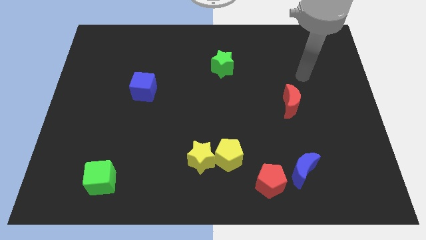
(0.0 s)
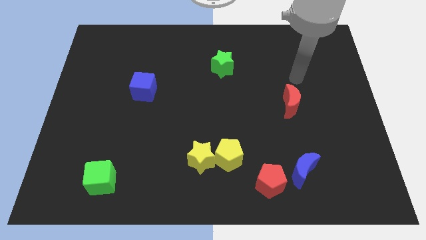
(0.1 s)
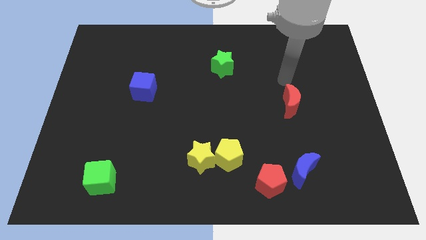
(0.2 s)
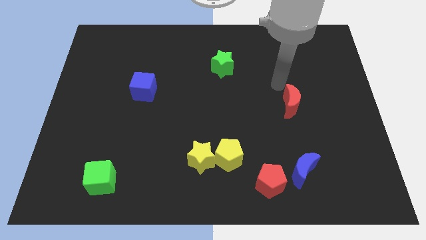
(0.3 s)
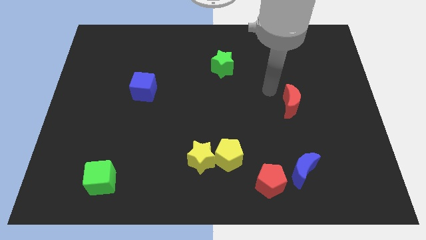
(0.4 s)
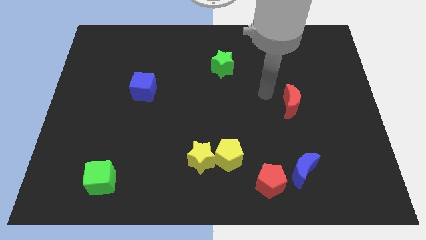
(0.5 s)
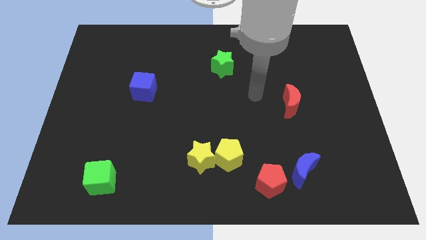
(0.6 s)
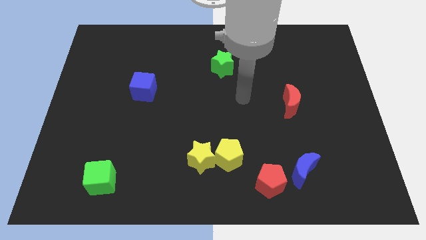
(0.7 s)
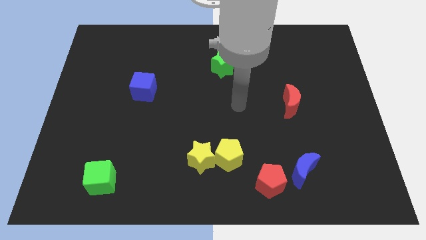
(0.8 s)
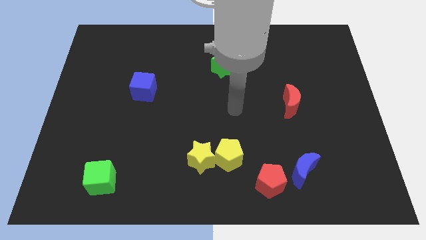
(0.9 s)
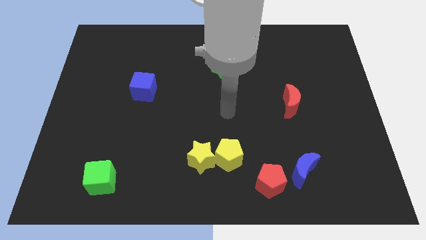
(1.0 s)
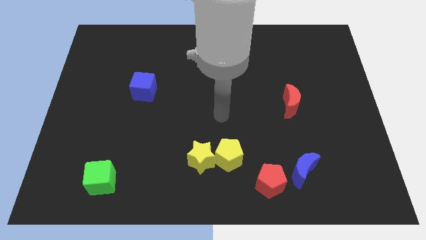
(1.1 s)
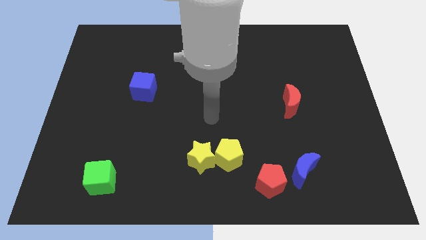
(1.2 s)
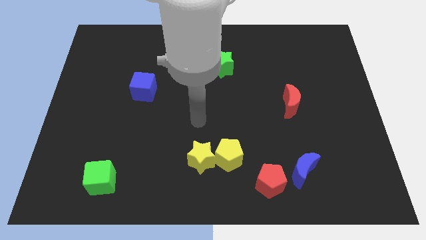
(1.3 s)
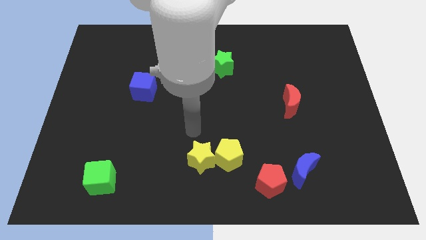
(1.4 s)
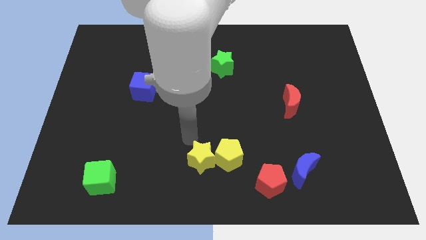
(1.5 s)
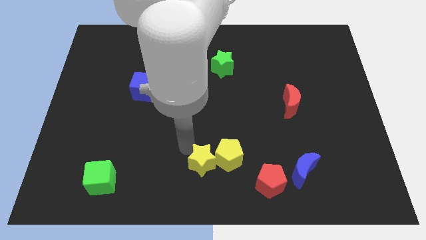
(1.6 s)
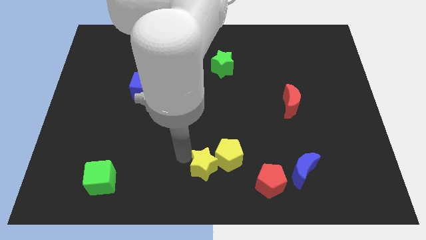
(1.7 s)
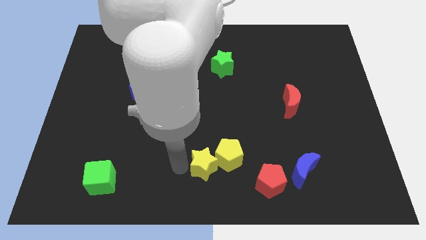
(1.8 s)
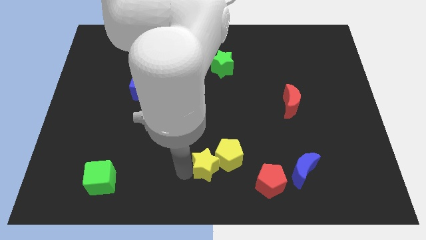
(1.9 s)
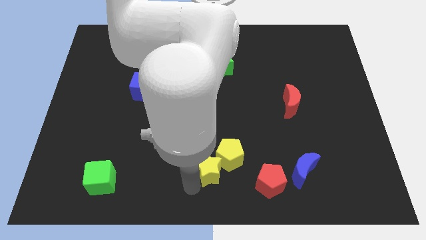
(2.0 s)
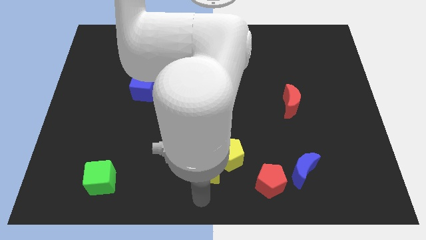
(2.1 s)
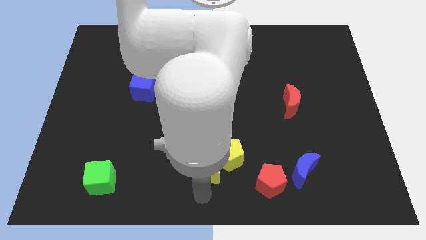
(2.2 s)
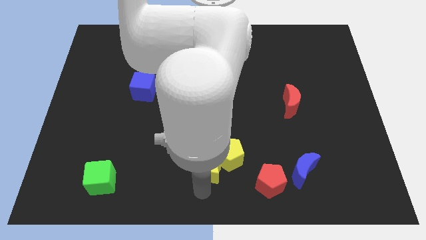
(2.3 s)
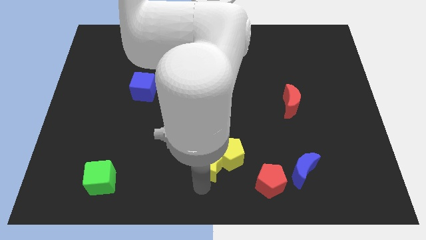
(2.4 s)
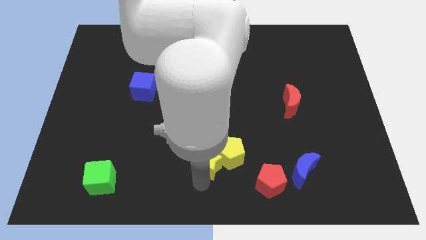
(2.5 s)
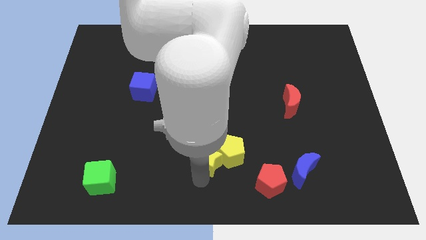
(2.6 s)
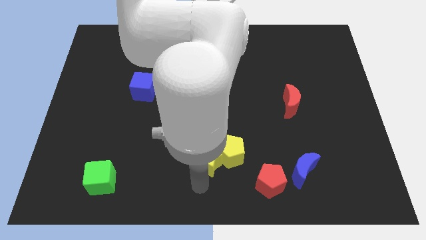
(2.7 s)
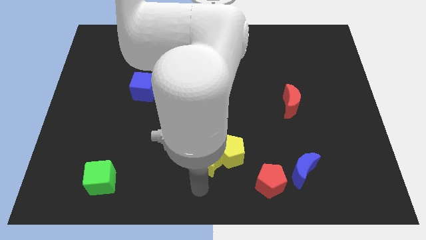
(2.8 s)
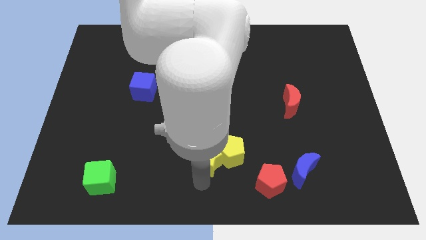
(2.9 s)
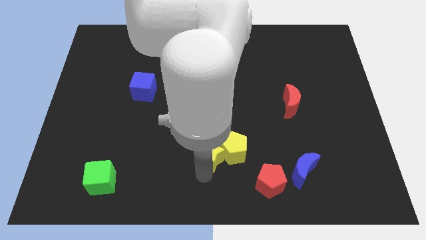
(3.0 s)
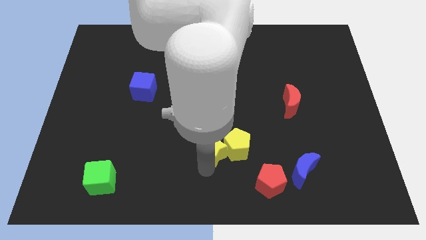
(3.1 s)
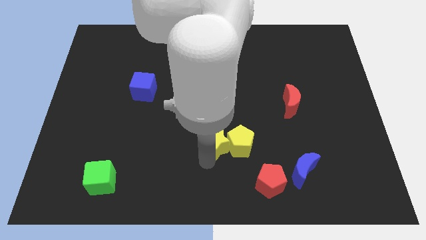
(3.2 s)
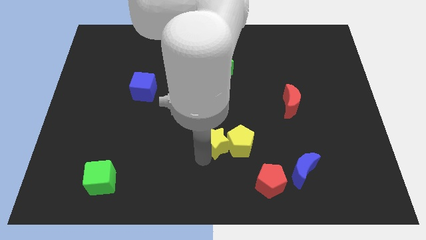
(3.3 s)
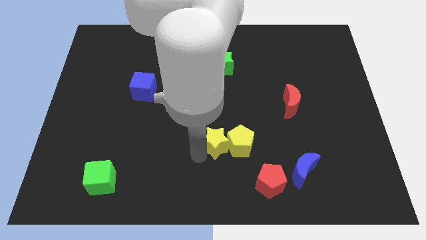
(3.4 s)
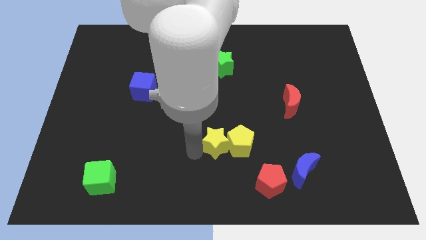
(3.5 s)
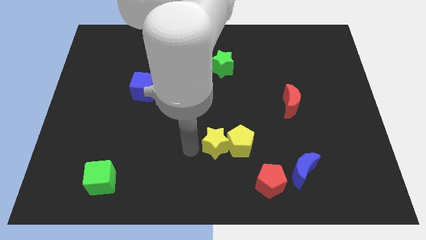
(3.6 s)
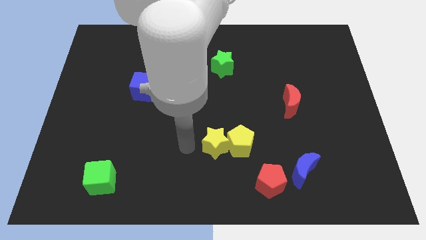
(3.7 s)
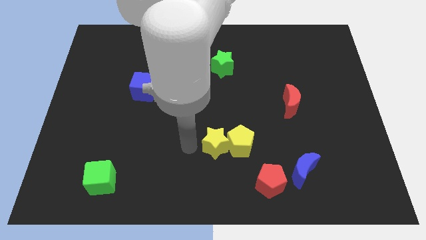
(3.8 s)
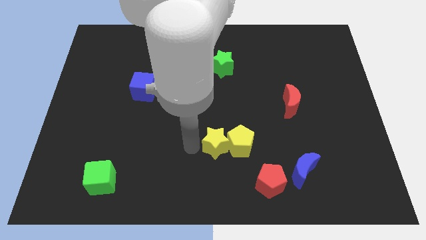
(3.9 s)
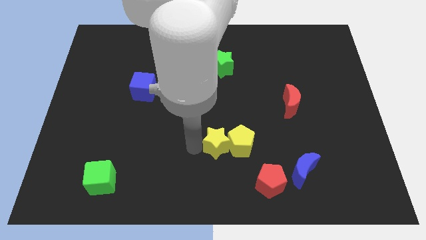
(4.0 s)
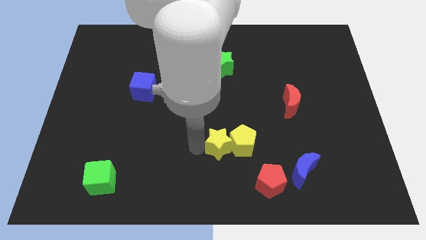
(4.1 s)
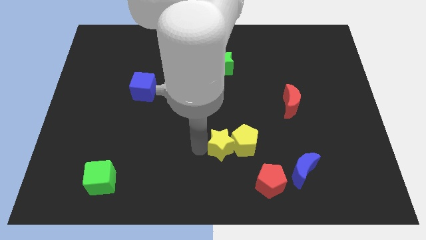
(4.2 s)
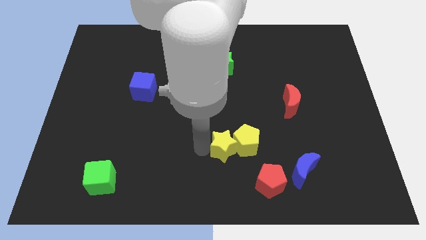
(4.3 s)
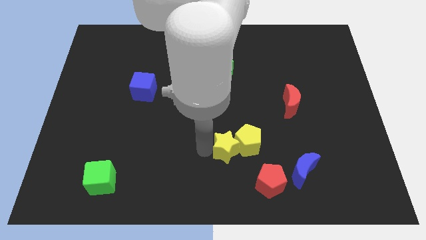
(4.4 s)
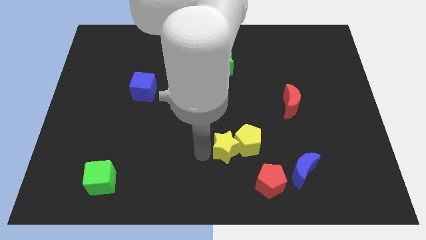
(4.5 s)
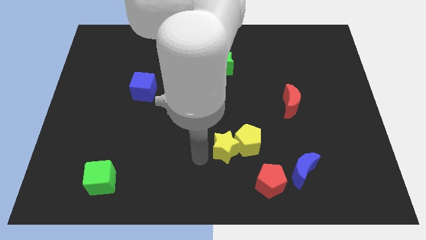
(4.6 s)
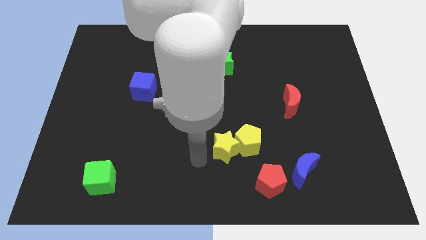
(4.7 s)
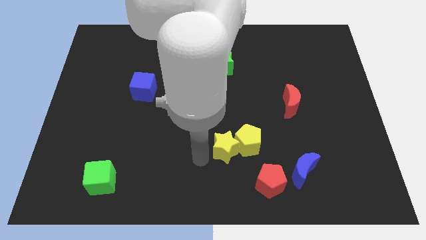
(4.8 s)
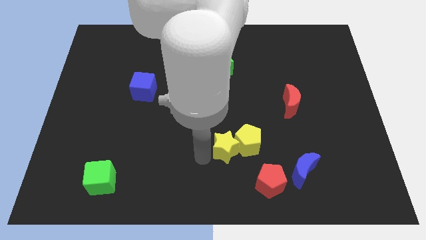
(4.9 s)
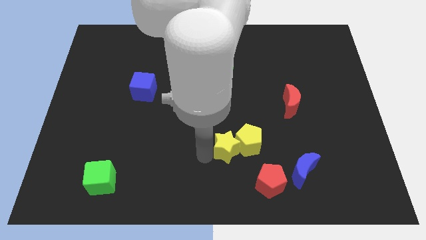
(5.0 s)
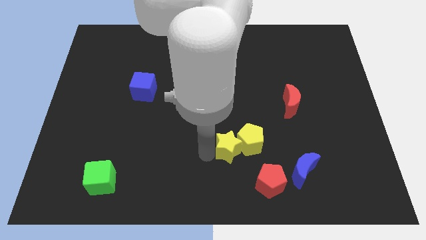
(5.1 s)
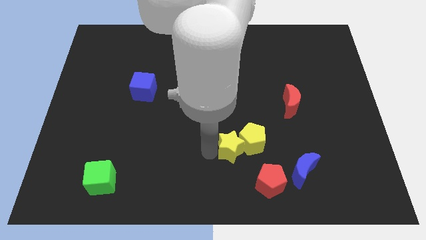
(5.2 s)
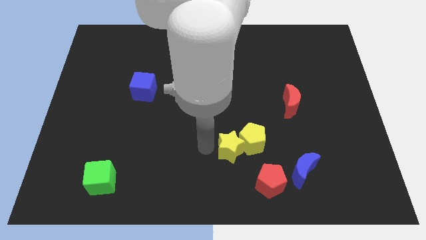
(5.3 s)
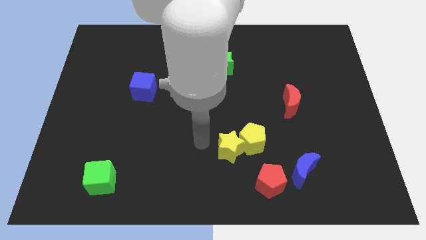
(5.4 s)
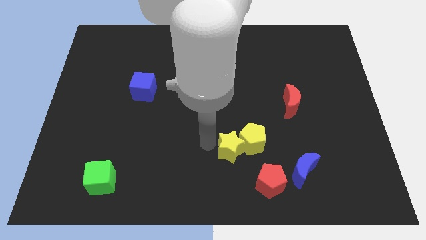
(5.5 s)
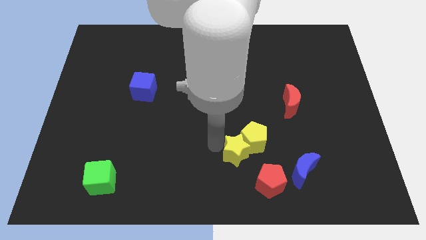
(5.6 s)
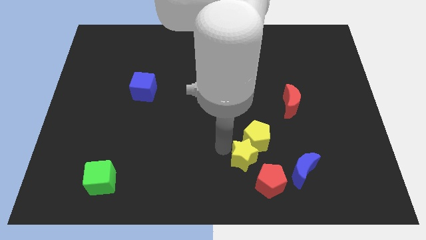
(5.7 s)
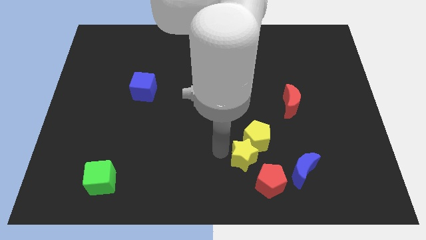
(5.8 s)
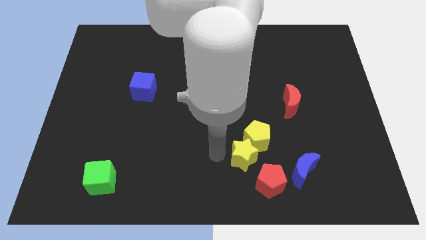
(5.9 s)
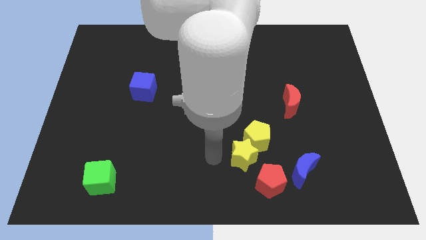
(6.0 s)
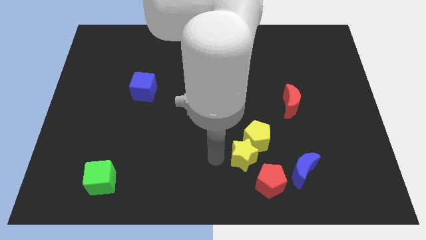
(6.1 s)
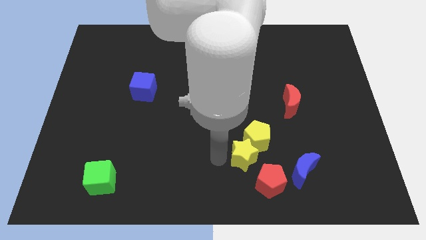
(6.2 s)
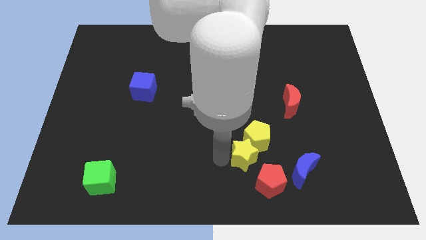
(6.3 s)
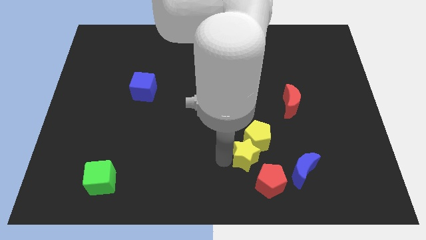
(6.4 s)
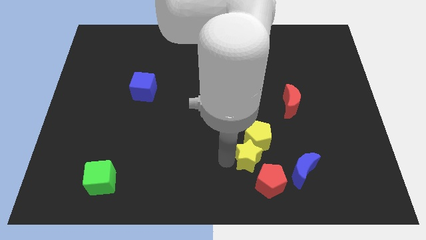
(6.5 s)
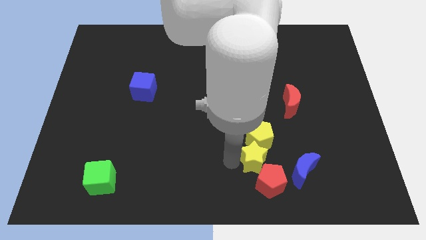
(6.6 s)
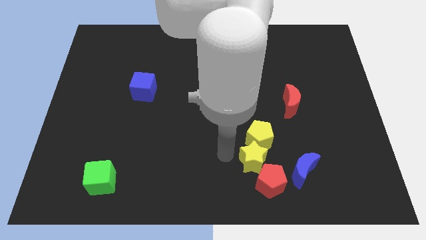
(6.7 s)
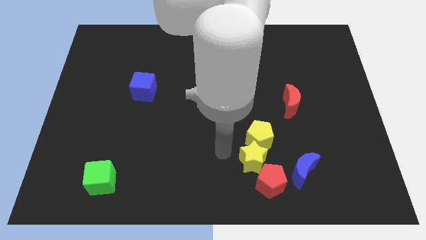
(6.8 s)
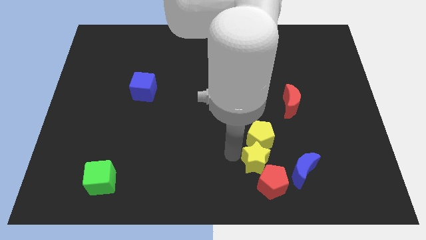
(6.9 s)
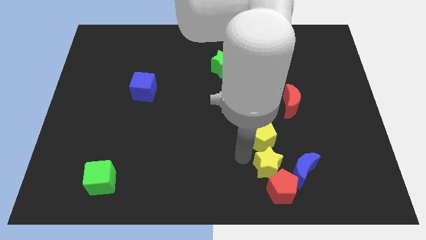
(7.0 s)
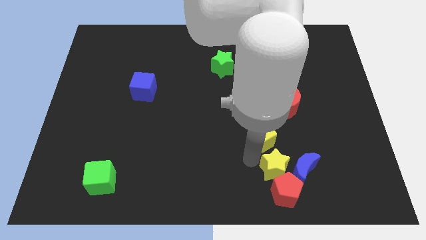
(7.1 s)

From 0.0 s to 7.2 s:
move the yellow star close to the blue moon
